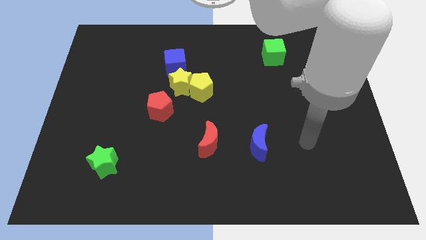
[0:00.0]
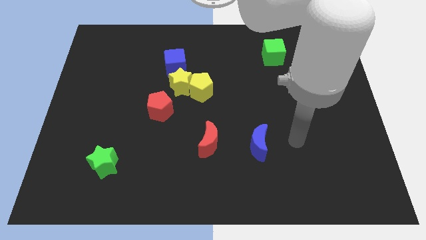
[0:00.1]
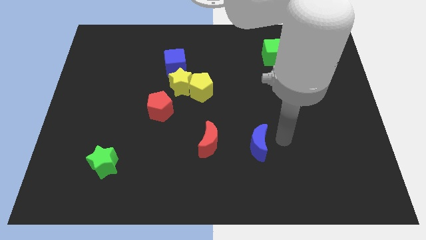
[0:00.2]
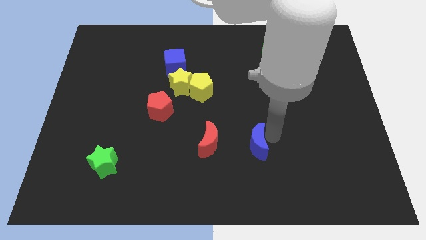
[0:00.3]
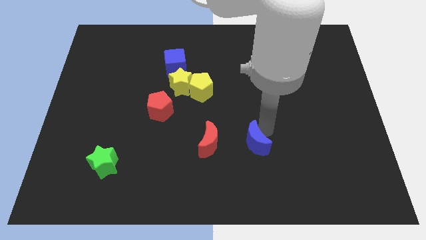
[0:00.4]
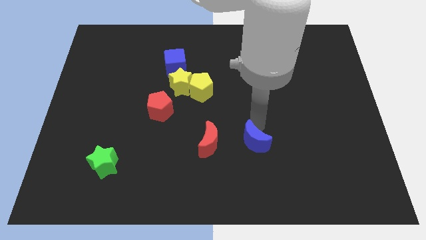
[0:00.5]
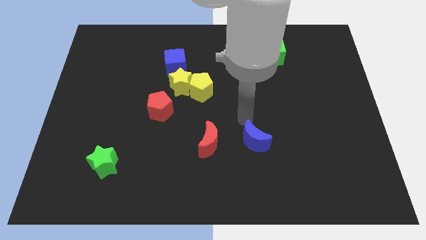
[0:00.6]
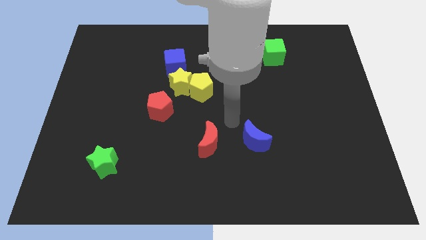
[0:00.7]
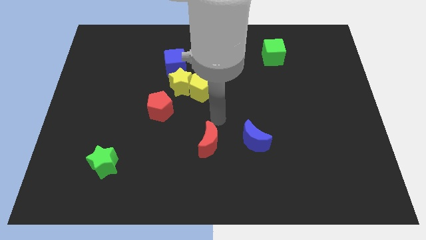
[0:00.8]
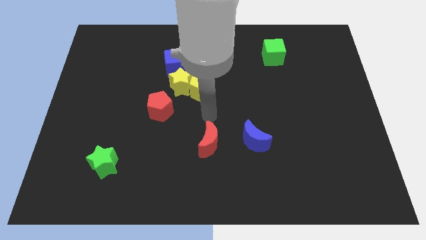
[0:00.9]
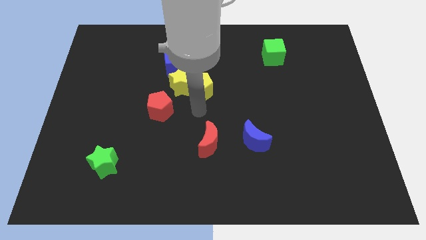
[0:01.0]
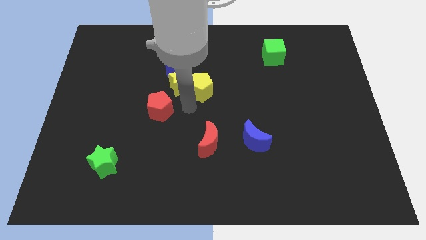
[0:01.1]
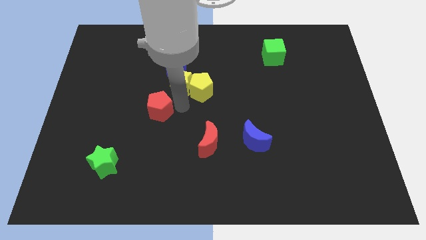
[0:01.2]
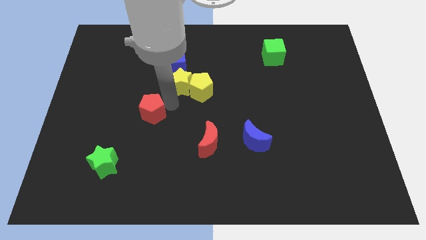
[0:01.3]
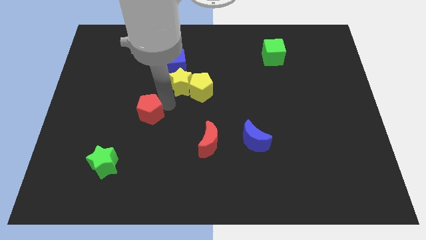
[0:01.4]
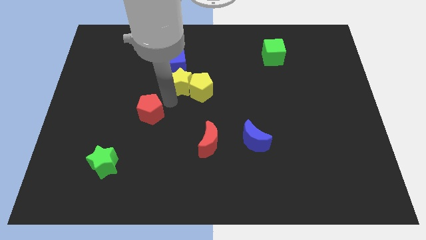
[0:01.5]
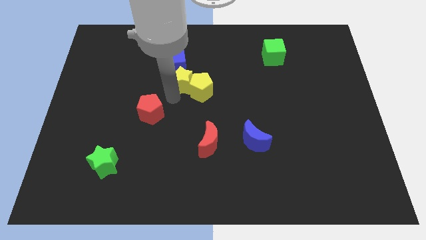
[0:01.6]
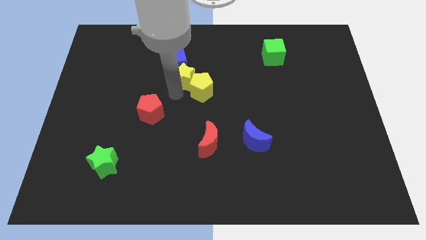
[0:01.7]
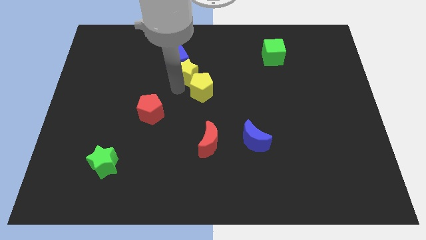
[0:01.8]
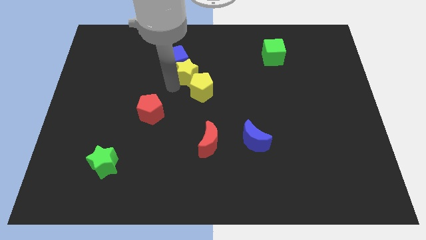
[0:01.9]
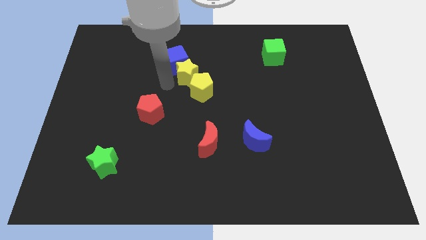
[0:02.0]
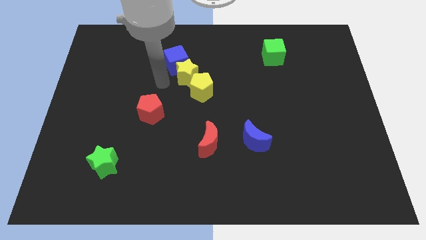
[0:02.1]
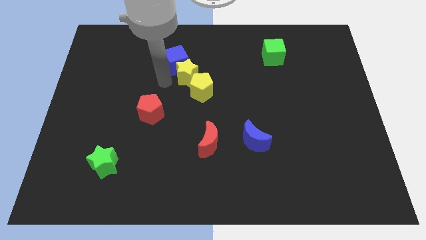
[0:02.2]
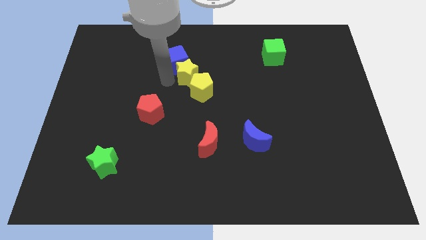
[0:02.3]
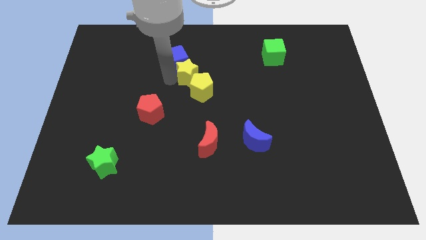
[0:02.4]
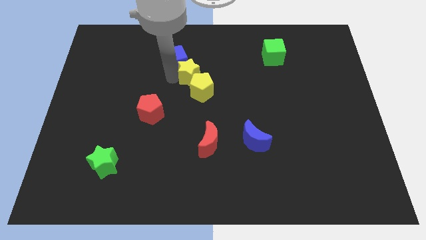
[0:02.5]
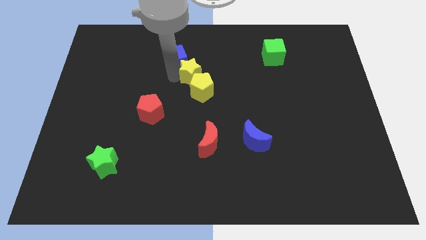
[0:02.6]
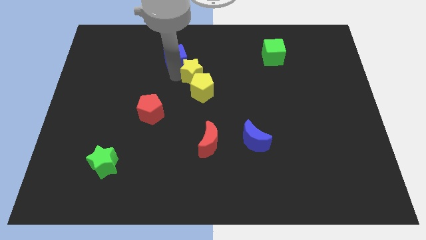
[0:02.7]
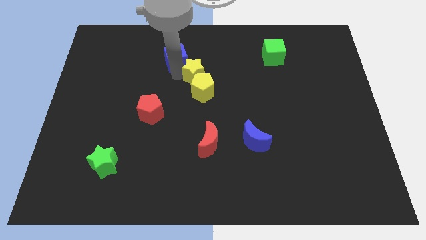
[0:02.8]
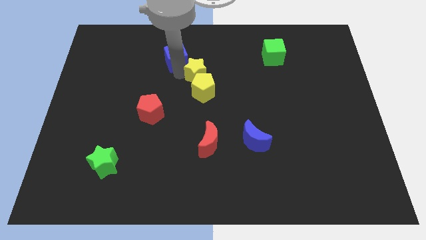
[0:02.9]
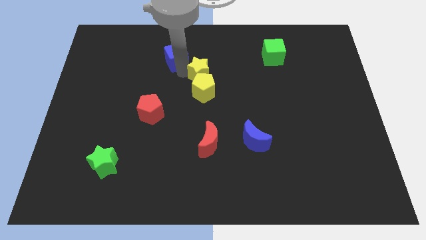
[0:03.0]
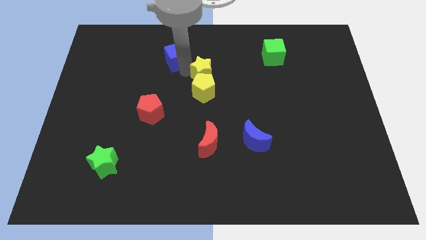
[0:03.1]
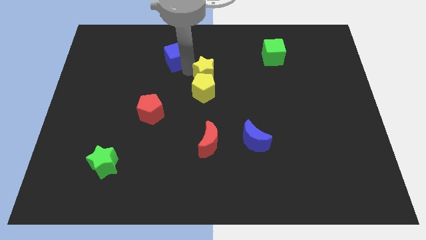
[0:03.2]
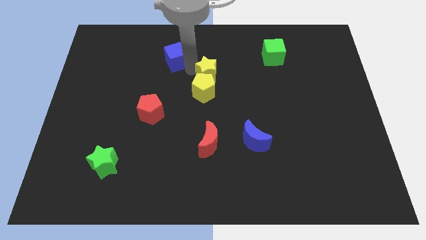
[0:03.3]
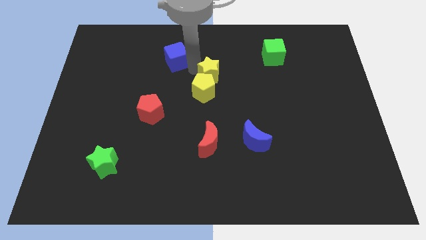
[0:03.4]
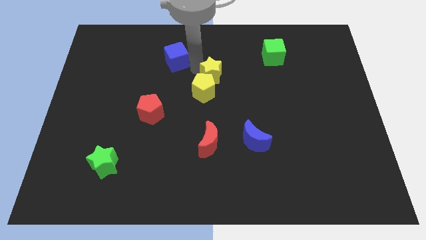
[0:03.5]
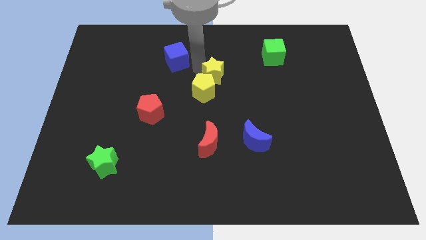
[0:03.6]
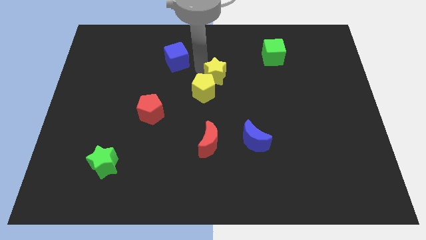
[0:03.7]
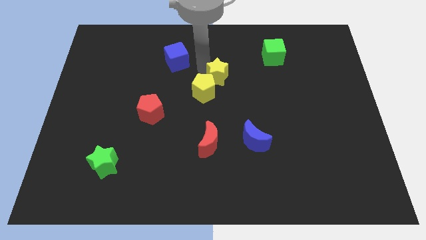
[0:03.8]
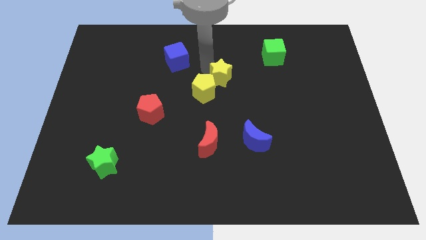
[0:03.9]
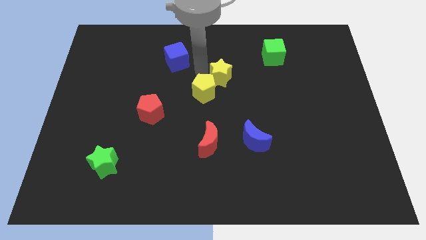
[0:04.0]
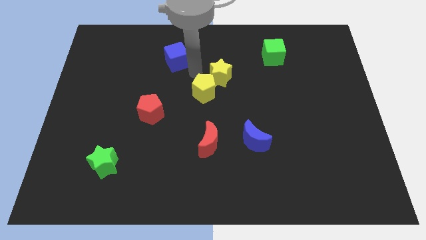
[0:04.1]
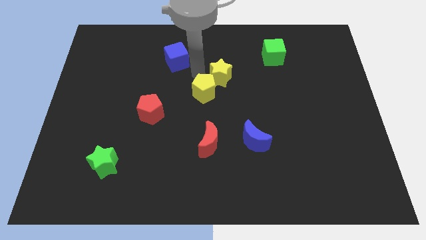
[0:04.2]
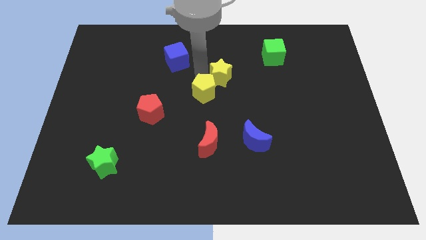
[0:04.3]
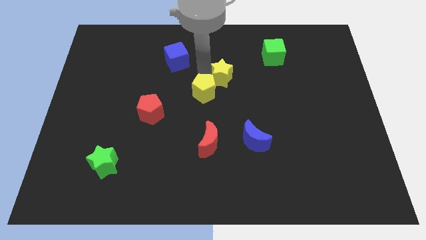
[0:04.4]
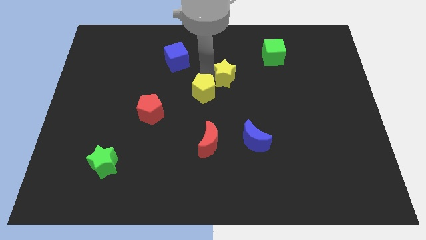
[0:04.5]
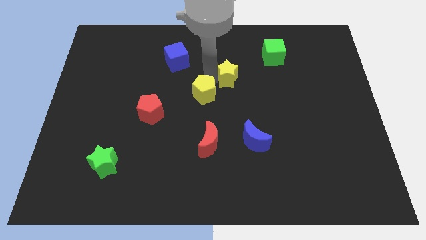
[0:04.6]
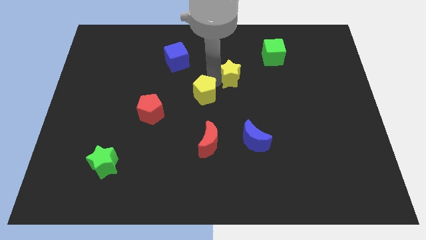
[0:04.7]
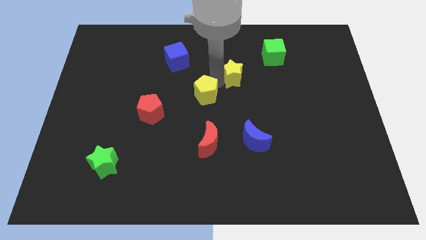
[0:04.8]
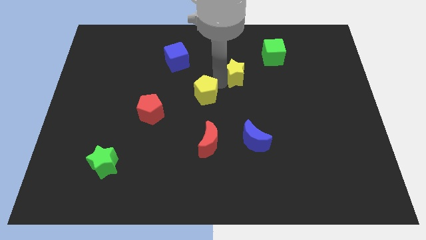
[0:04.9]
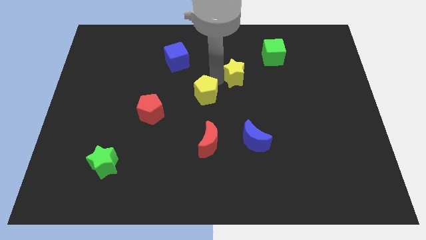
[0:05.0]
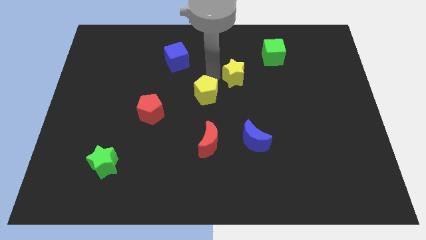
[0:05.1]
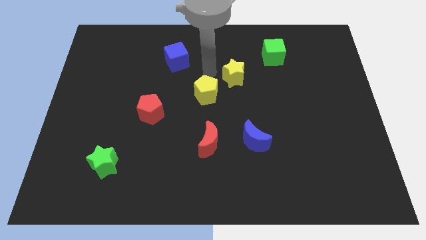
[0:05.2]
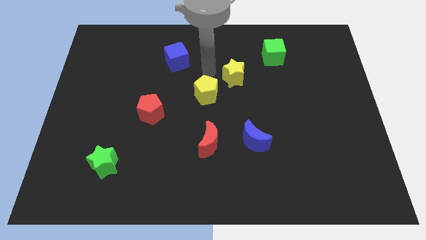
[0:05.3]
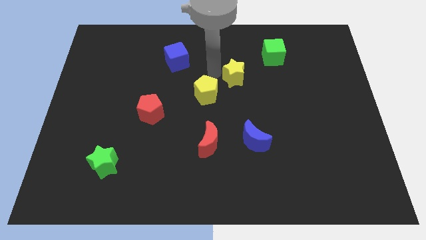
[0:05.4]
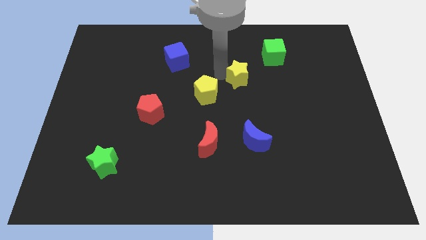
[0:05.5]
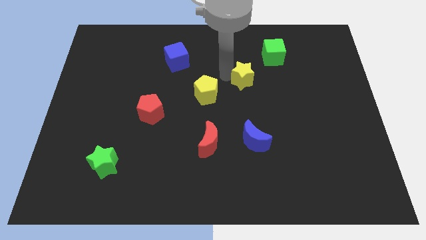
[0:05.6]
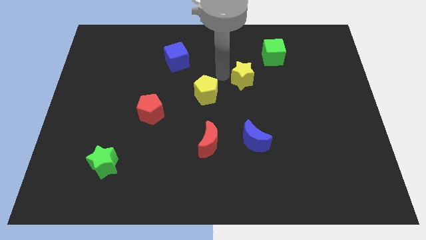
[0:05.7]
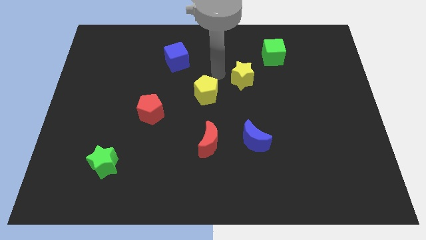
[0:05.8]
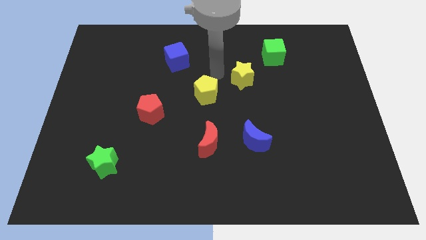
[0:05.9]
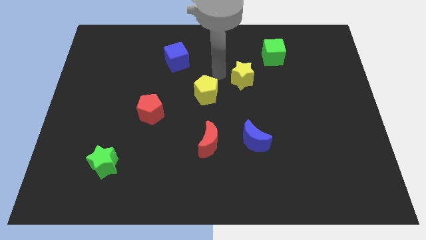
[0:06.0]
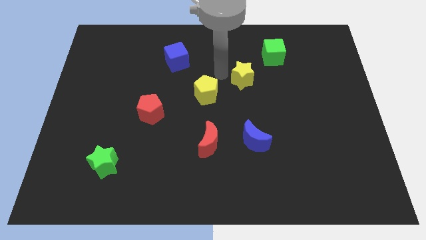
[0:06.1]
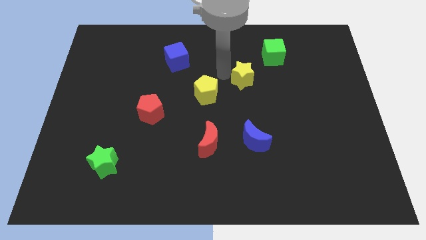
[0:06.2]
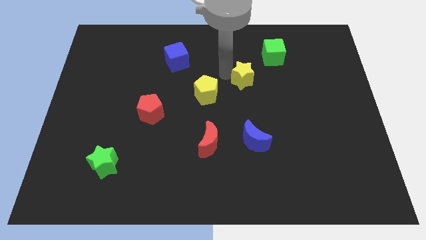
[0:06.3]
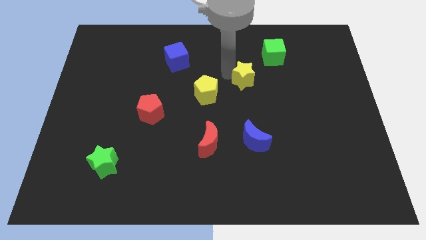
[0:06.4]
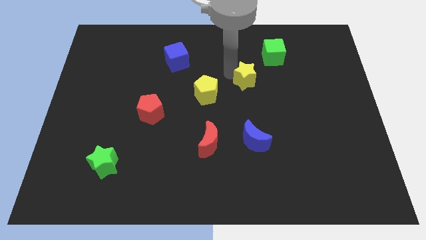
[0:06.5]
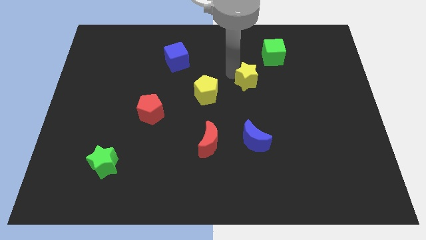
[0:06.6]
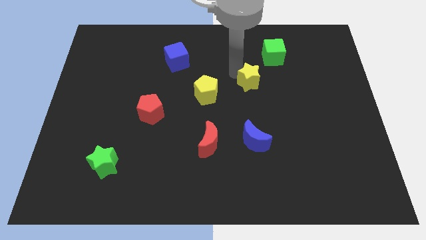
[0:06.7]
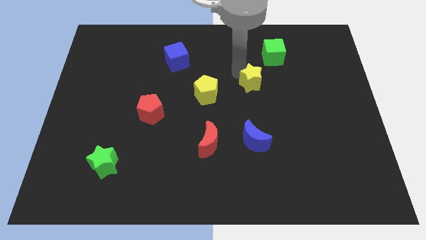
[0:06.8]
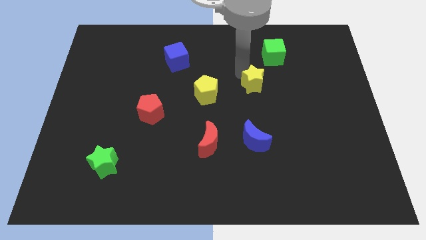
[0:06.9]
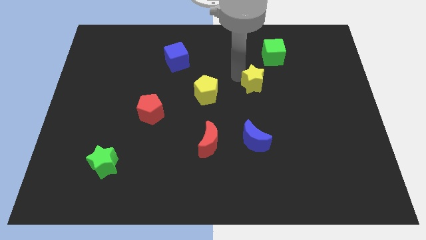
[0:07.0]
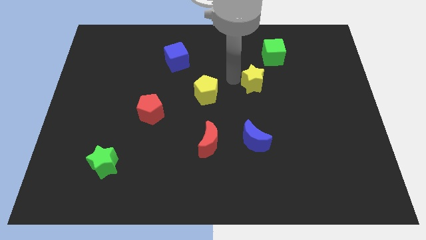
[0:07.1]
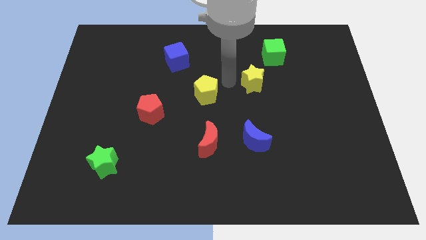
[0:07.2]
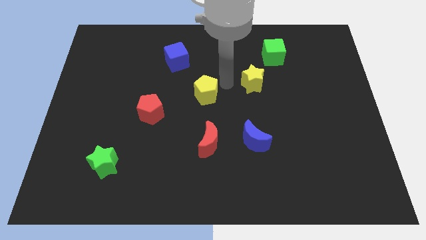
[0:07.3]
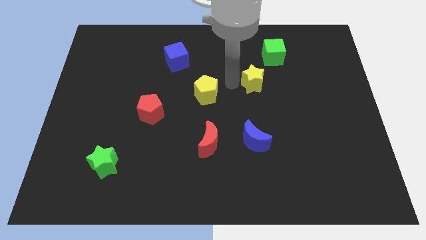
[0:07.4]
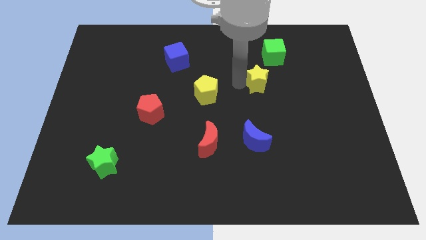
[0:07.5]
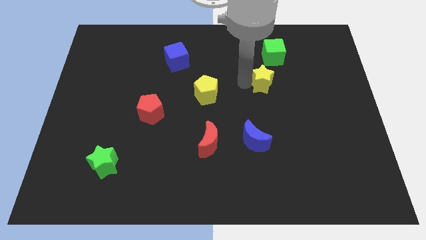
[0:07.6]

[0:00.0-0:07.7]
move the yellow star right

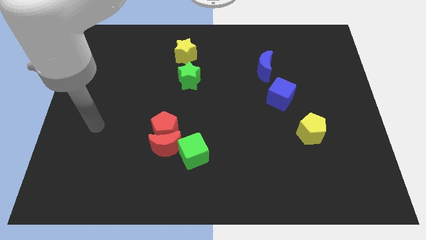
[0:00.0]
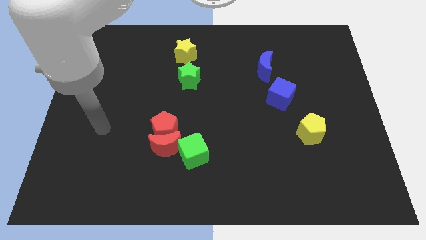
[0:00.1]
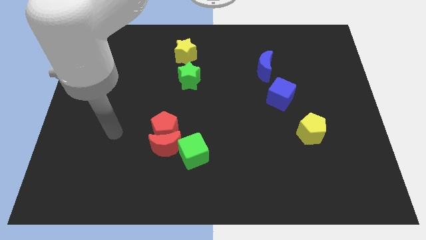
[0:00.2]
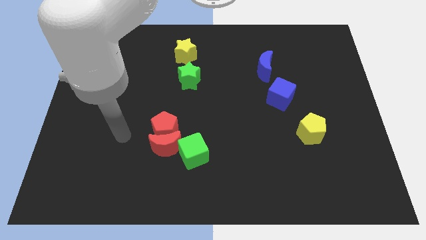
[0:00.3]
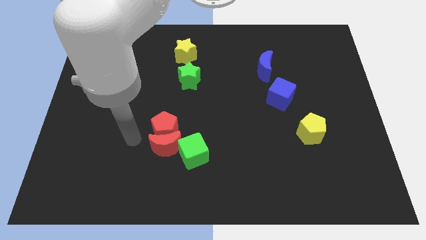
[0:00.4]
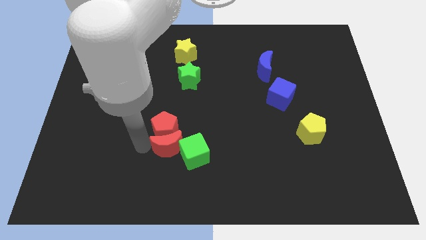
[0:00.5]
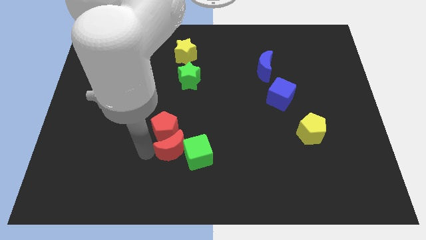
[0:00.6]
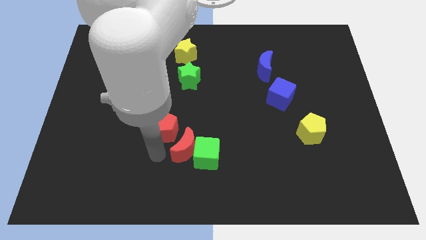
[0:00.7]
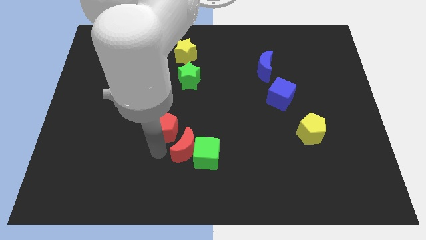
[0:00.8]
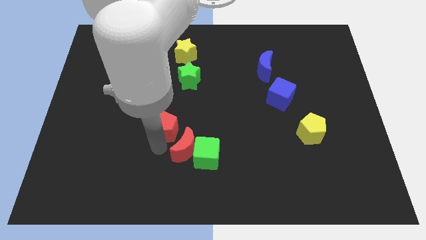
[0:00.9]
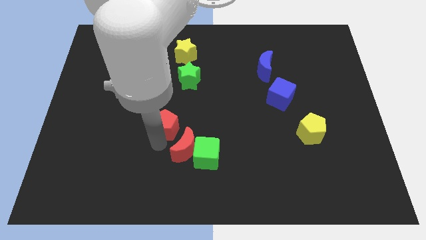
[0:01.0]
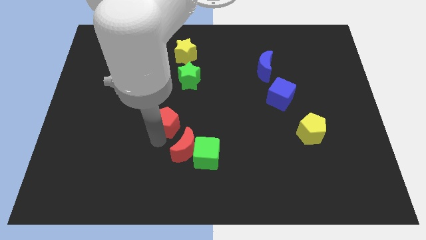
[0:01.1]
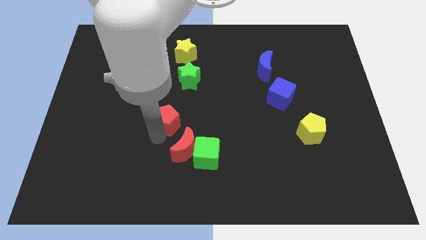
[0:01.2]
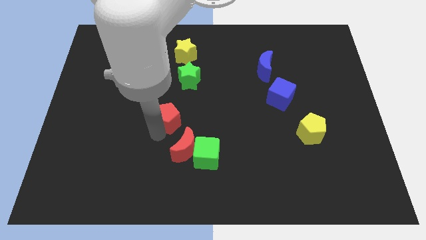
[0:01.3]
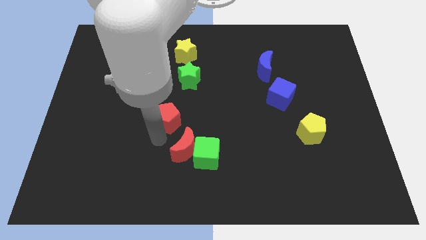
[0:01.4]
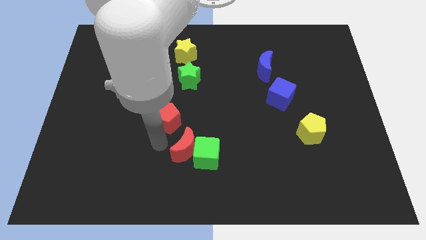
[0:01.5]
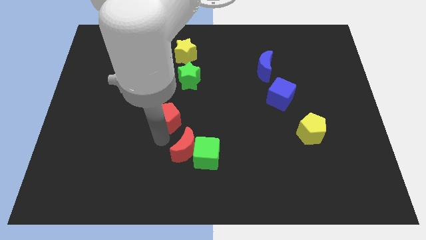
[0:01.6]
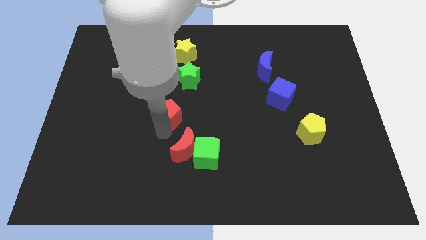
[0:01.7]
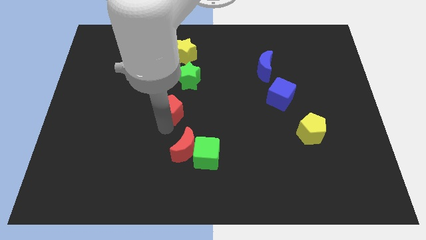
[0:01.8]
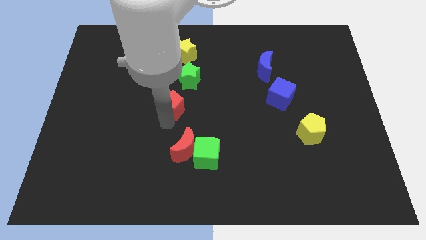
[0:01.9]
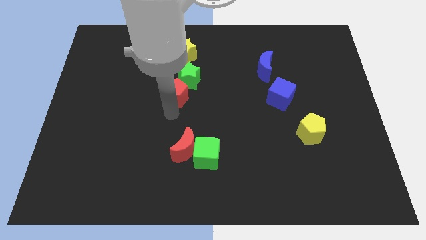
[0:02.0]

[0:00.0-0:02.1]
push the red pentagon a little upwards
